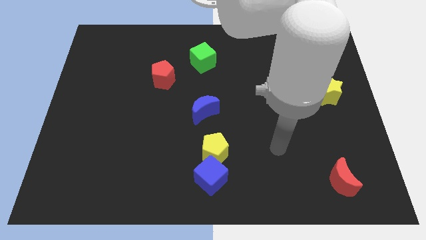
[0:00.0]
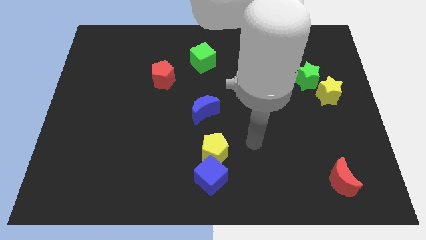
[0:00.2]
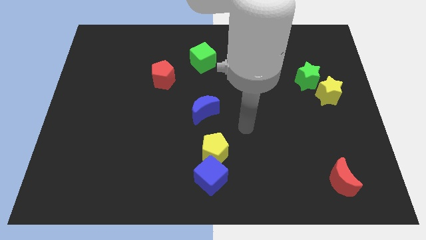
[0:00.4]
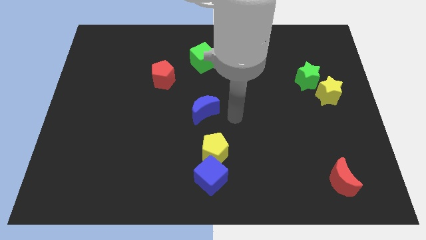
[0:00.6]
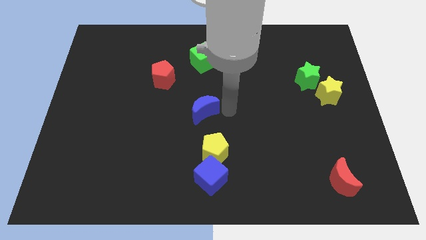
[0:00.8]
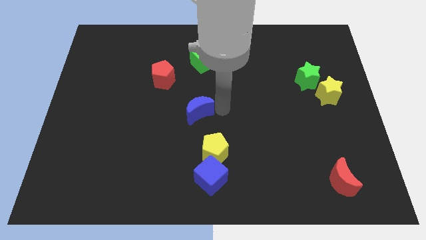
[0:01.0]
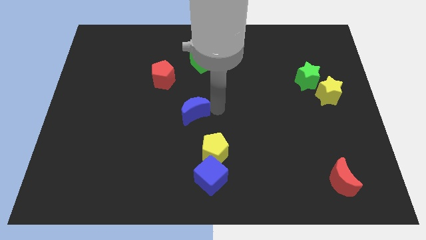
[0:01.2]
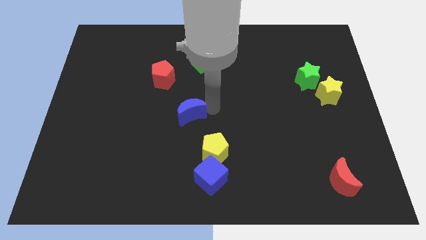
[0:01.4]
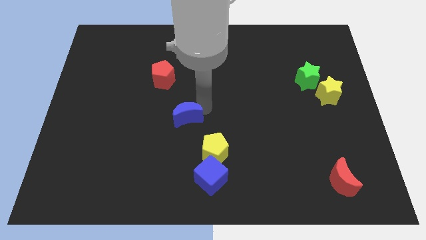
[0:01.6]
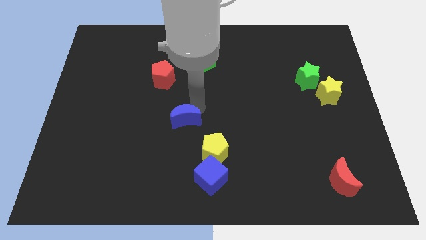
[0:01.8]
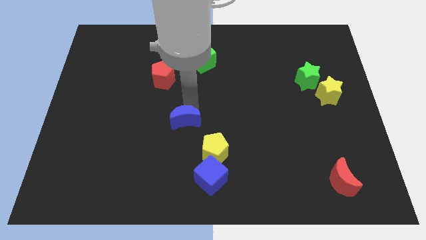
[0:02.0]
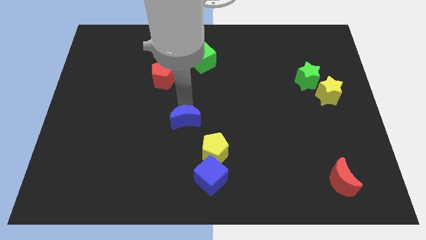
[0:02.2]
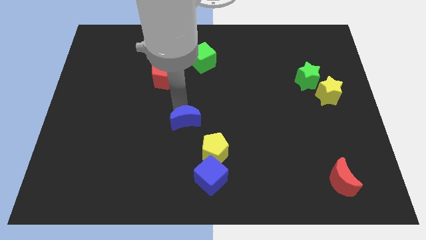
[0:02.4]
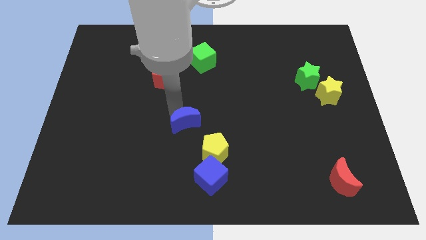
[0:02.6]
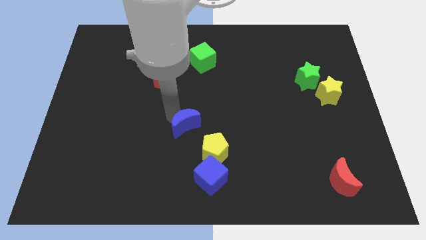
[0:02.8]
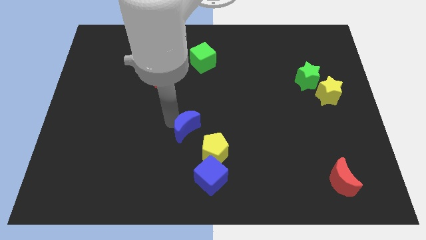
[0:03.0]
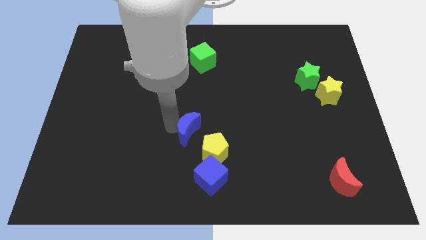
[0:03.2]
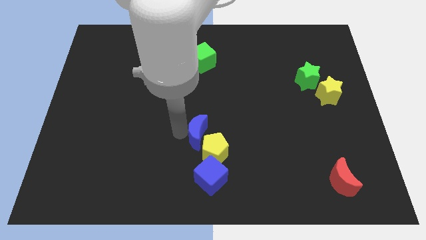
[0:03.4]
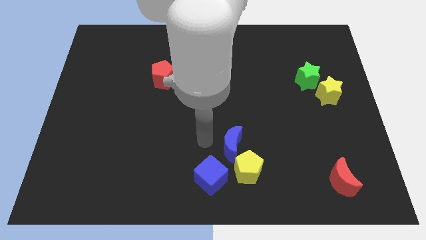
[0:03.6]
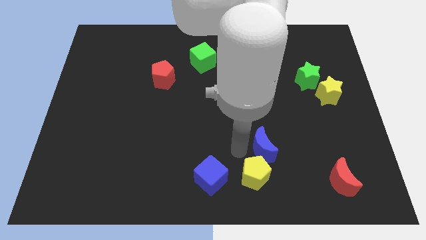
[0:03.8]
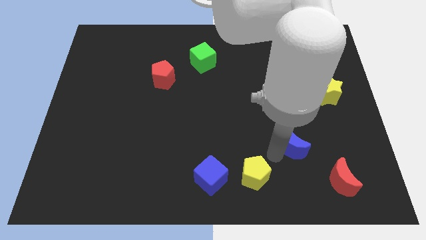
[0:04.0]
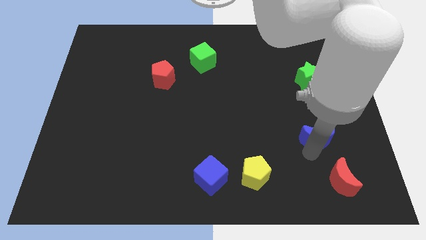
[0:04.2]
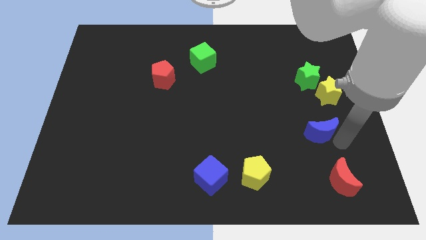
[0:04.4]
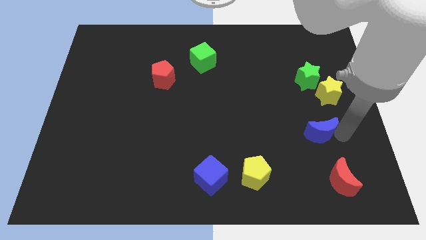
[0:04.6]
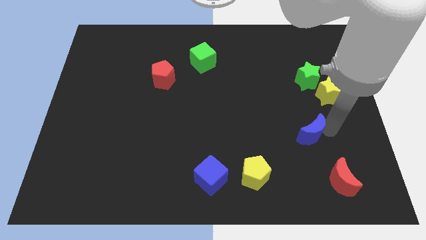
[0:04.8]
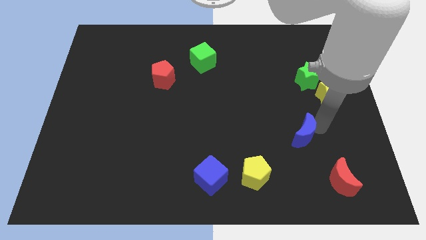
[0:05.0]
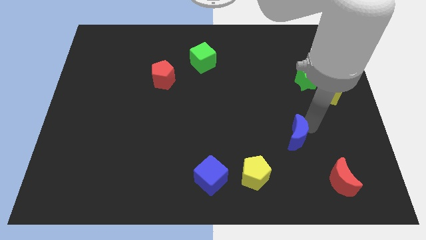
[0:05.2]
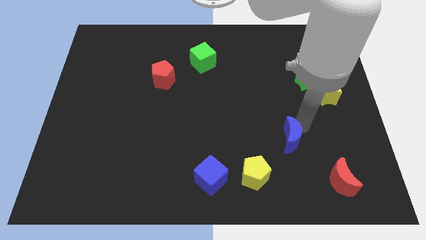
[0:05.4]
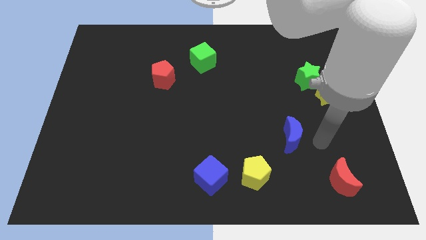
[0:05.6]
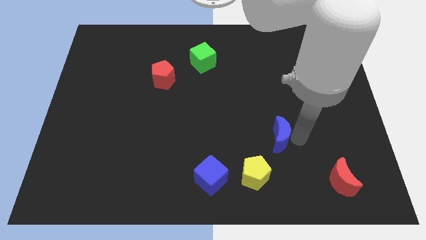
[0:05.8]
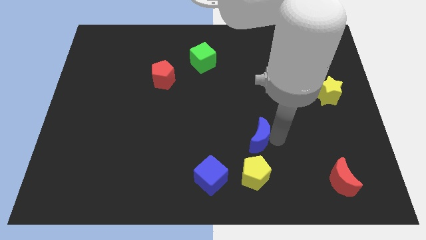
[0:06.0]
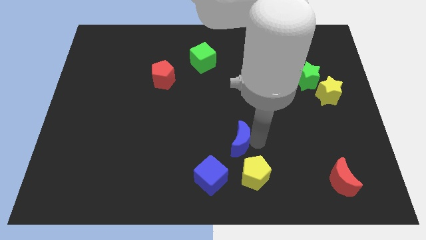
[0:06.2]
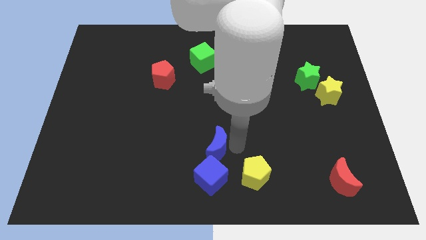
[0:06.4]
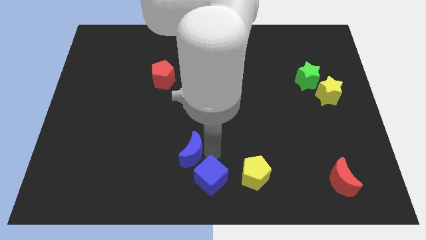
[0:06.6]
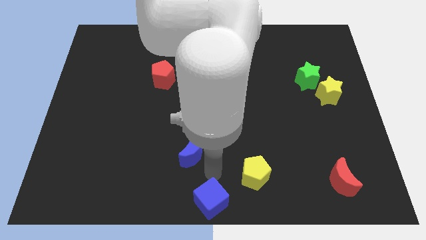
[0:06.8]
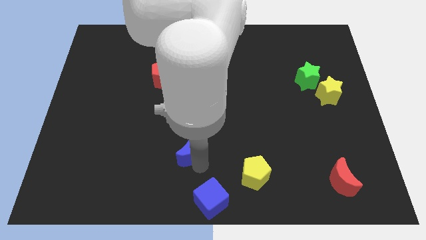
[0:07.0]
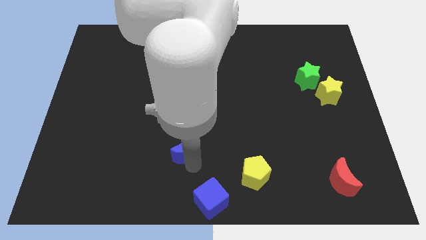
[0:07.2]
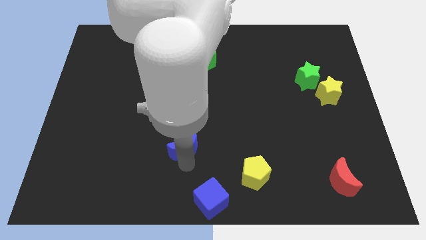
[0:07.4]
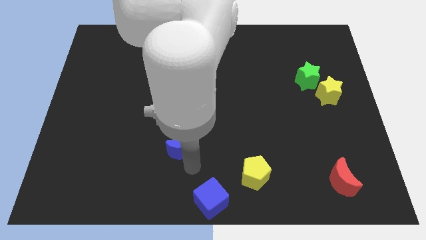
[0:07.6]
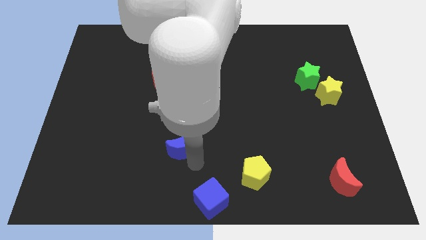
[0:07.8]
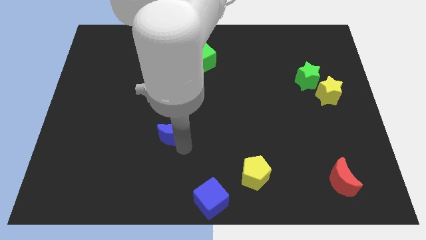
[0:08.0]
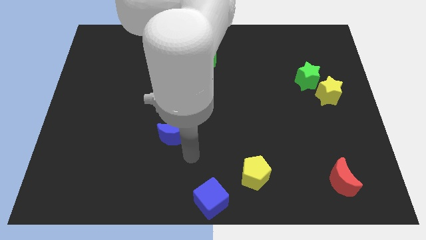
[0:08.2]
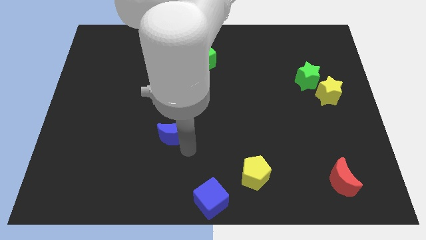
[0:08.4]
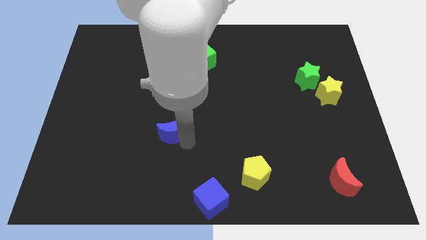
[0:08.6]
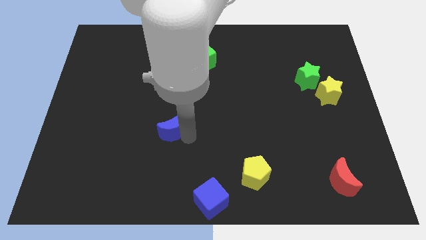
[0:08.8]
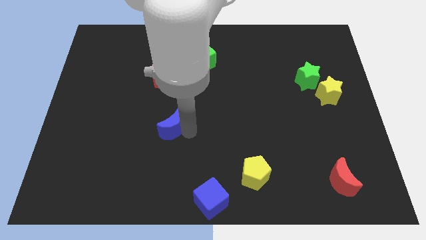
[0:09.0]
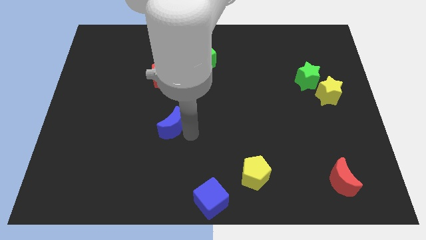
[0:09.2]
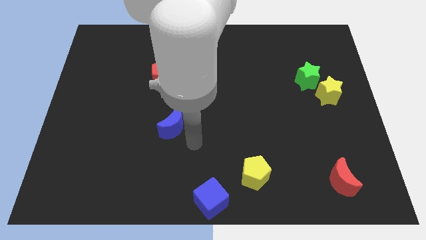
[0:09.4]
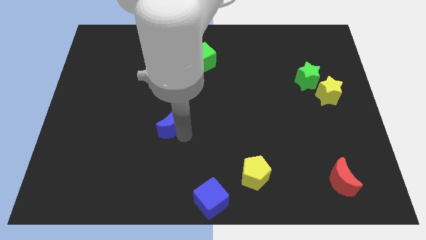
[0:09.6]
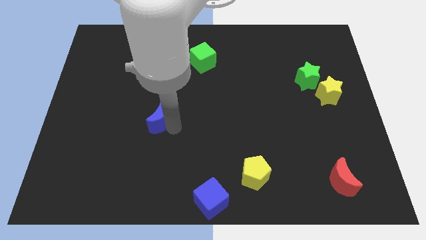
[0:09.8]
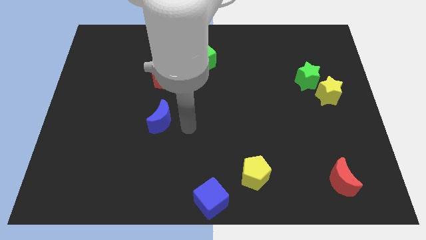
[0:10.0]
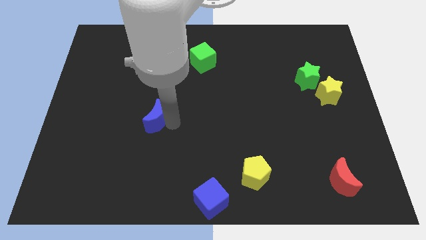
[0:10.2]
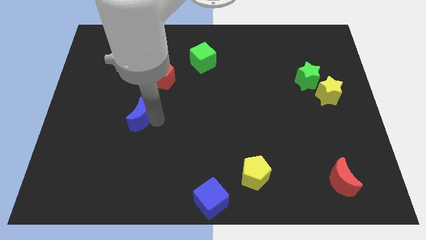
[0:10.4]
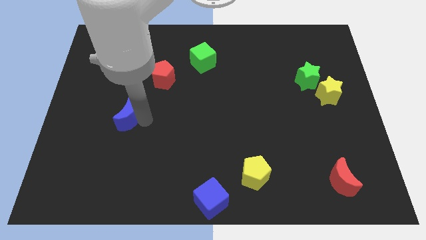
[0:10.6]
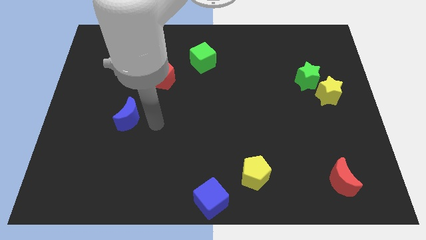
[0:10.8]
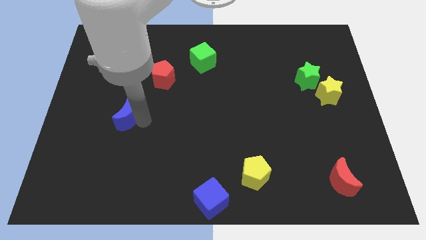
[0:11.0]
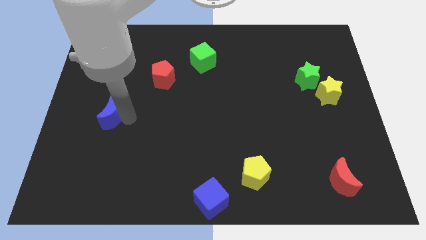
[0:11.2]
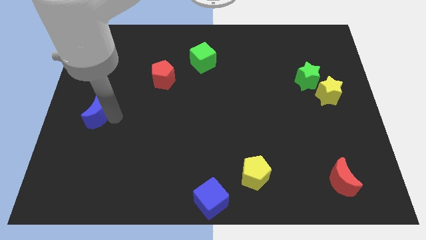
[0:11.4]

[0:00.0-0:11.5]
push the blue moon to the left side
